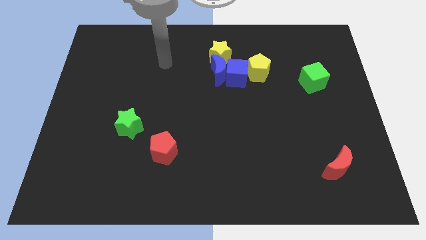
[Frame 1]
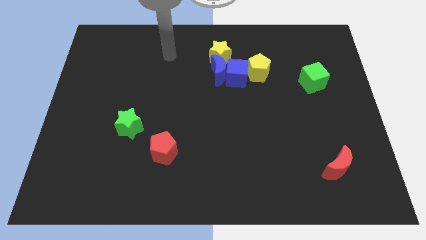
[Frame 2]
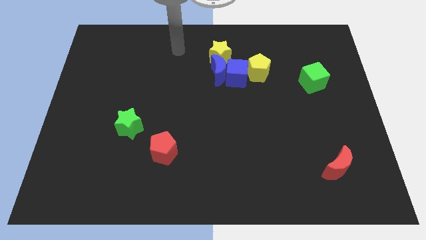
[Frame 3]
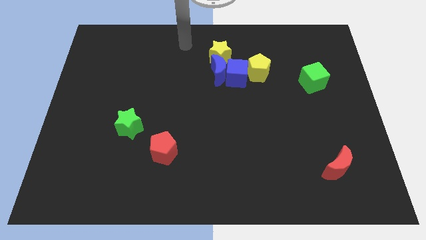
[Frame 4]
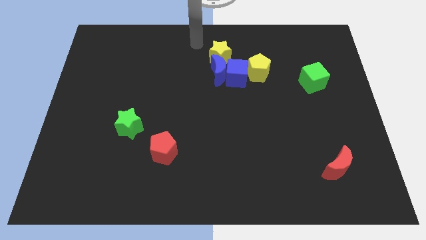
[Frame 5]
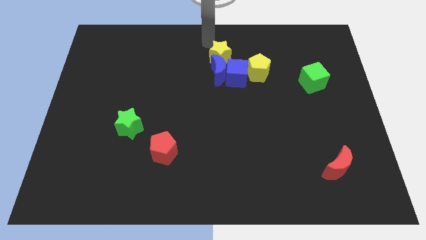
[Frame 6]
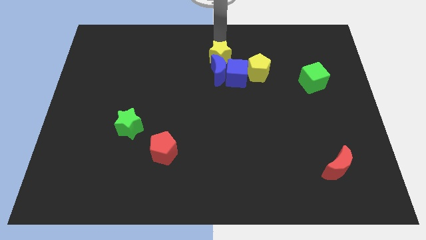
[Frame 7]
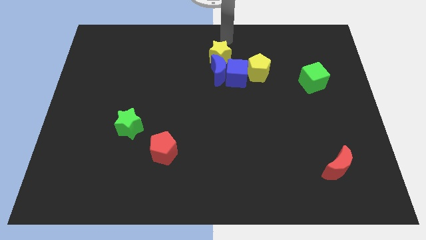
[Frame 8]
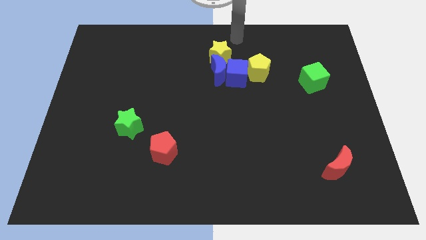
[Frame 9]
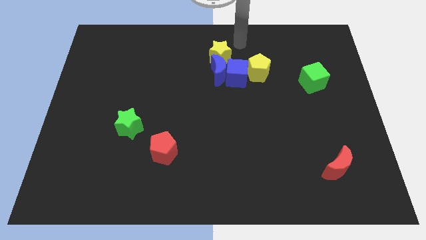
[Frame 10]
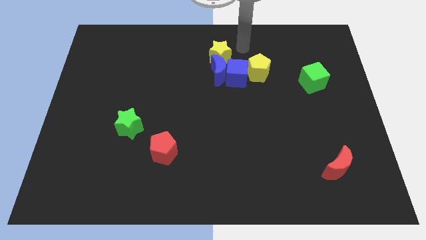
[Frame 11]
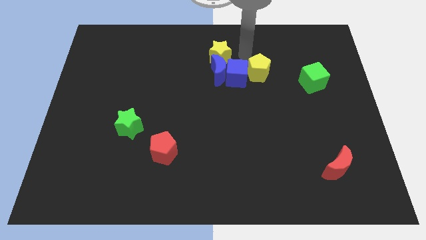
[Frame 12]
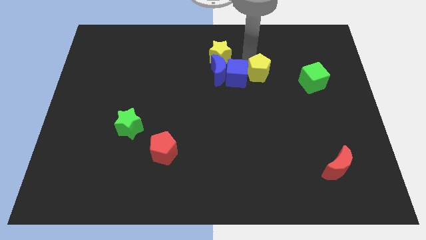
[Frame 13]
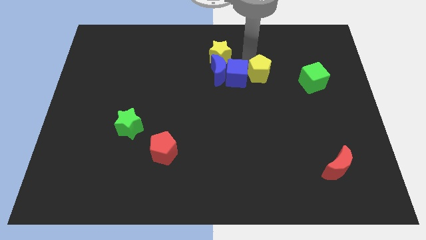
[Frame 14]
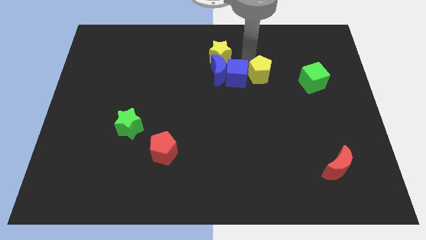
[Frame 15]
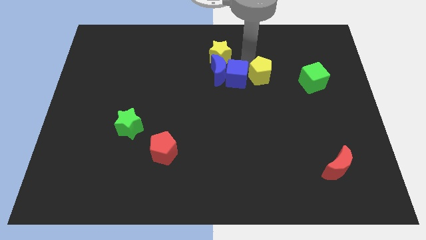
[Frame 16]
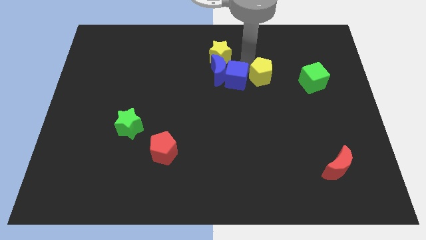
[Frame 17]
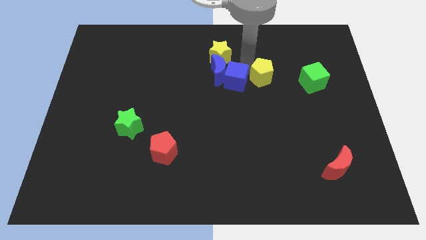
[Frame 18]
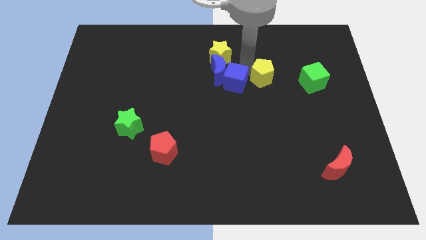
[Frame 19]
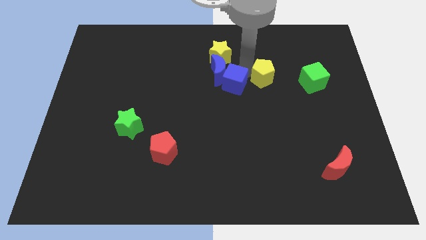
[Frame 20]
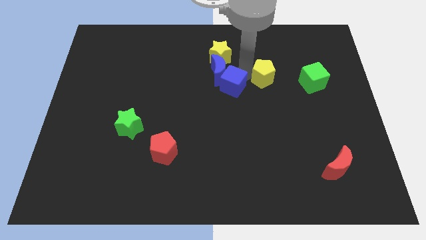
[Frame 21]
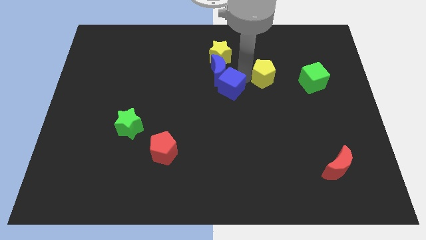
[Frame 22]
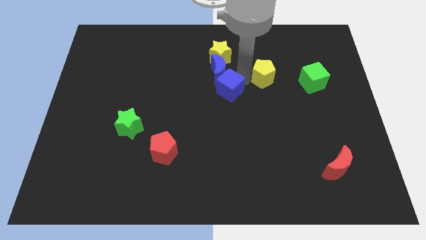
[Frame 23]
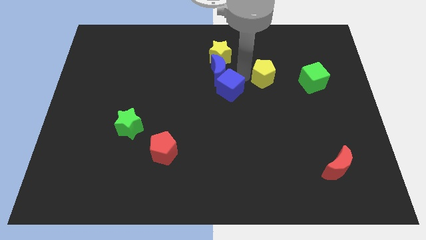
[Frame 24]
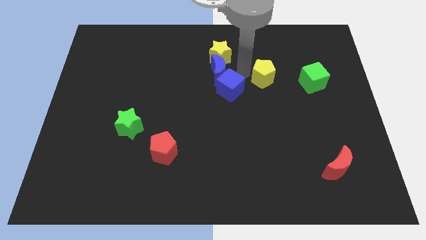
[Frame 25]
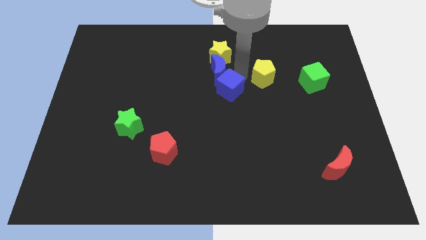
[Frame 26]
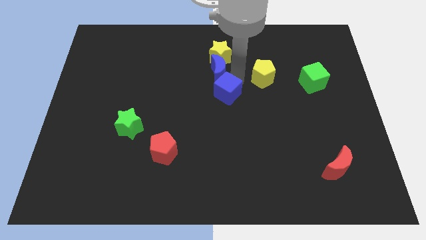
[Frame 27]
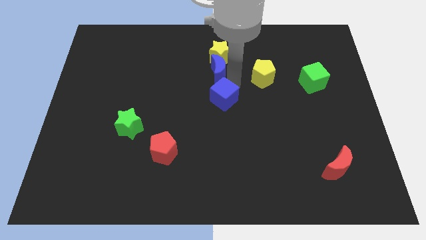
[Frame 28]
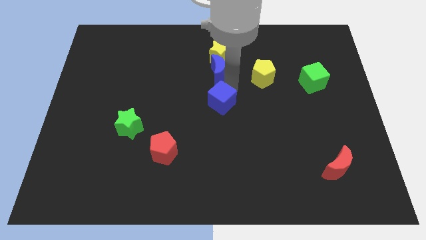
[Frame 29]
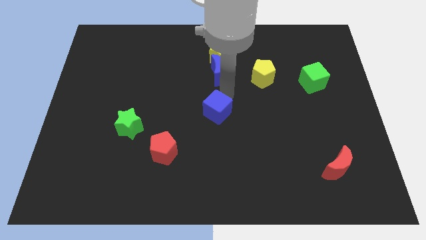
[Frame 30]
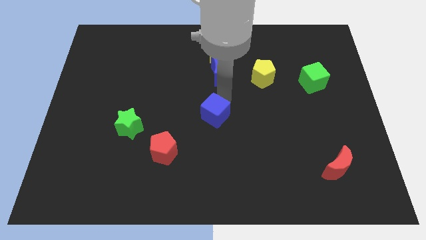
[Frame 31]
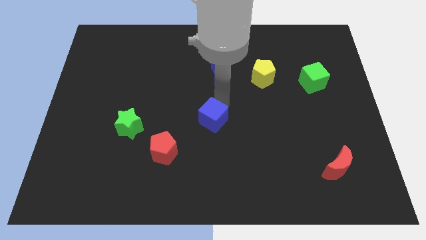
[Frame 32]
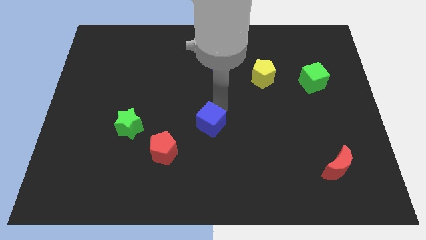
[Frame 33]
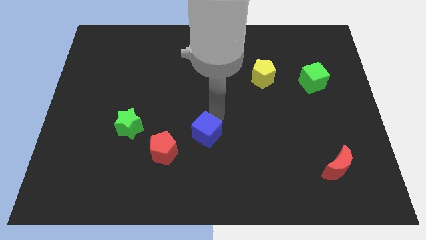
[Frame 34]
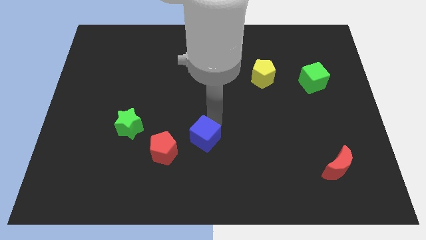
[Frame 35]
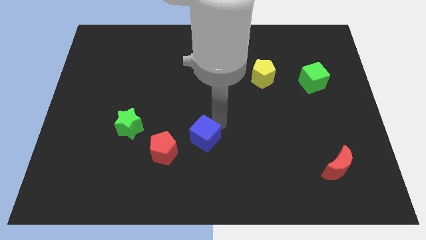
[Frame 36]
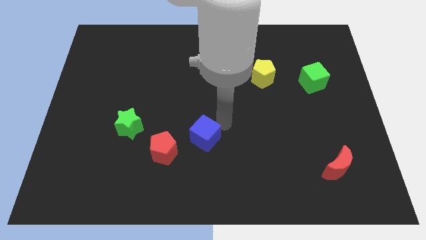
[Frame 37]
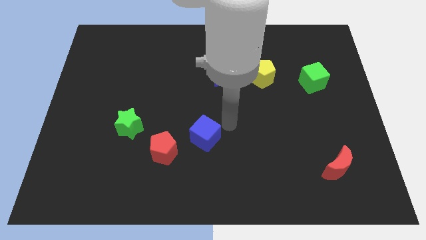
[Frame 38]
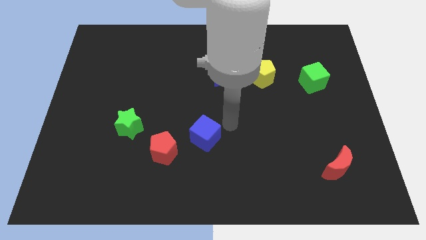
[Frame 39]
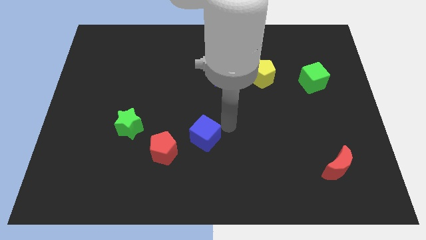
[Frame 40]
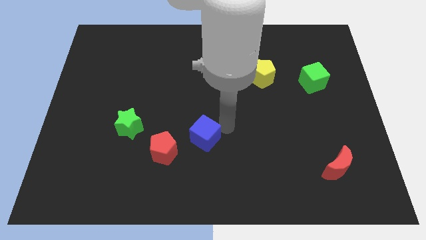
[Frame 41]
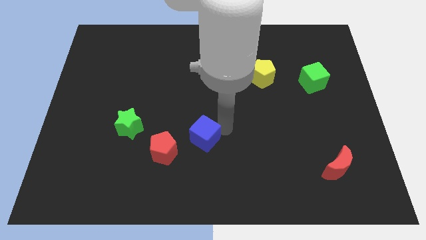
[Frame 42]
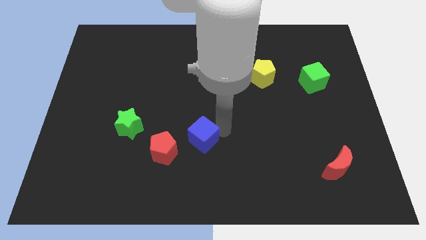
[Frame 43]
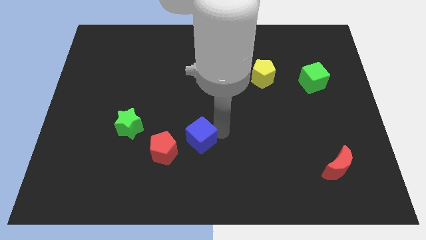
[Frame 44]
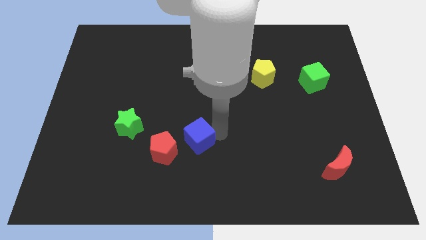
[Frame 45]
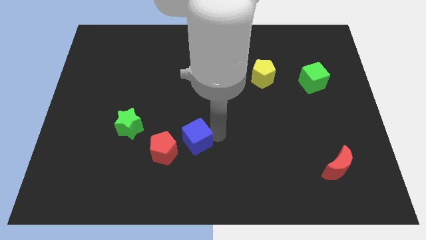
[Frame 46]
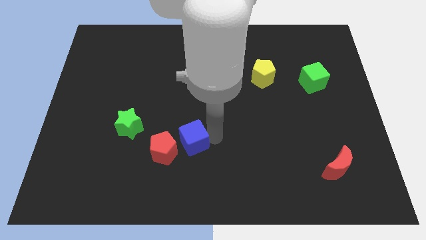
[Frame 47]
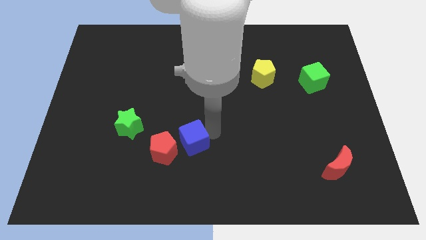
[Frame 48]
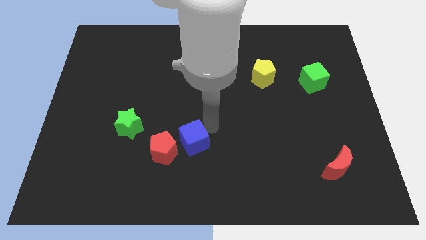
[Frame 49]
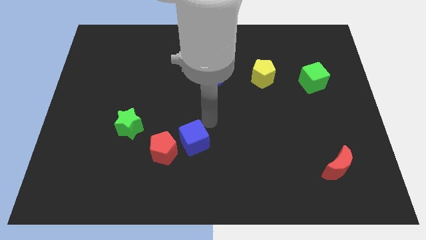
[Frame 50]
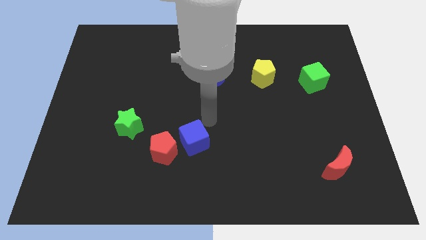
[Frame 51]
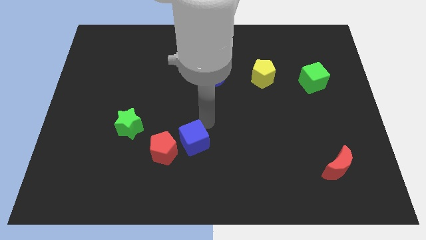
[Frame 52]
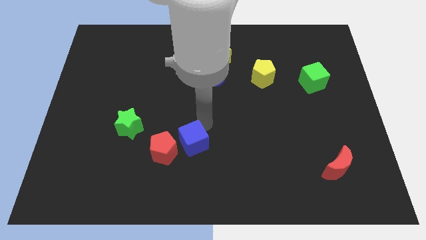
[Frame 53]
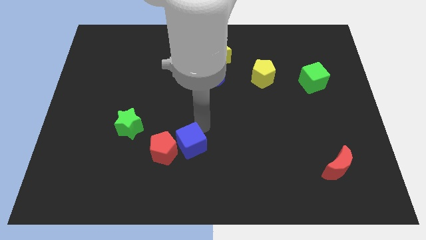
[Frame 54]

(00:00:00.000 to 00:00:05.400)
push the blue cube downwards and to the left diagonally

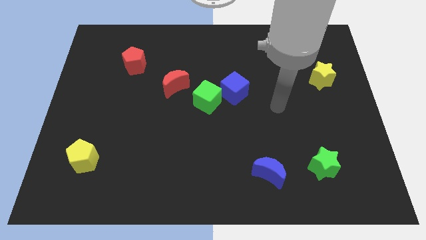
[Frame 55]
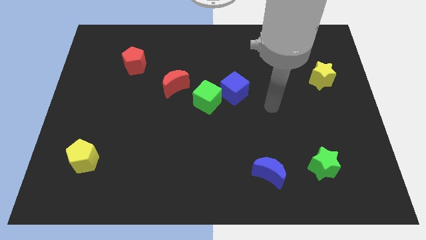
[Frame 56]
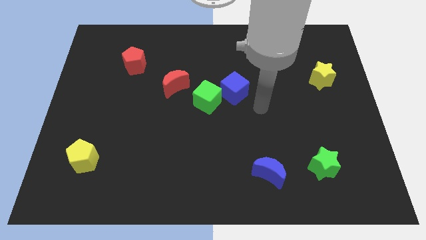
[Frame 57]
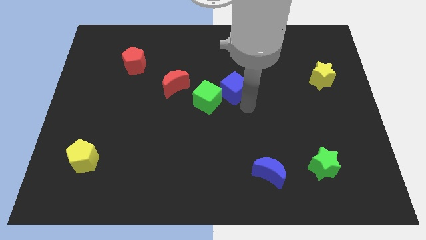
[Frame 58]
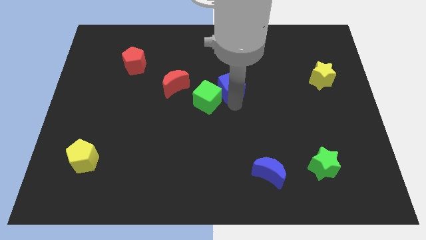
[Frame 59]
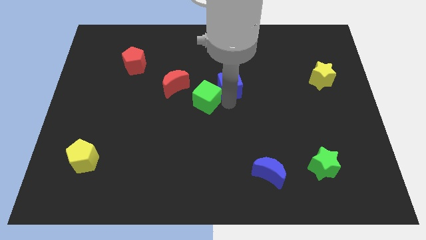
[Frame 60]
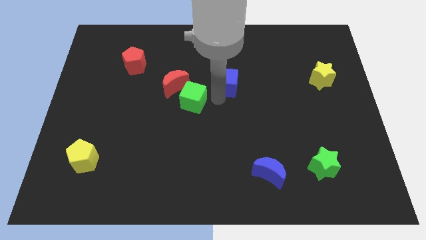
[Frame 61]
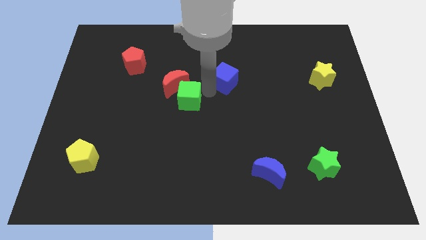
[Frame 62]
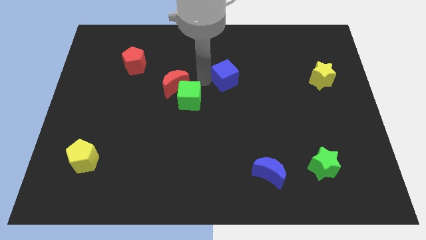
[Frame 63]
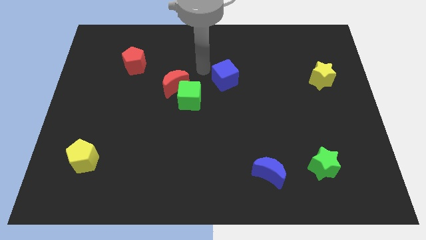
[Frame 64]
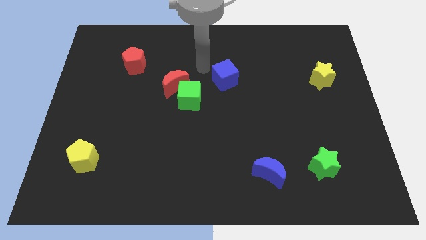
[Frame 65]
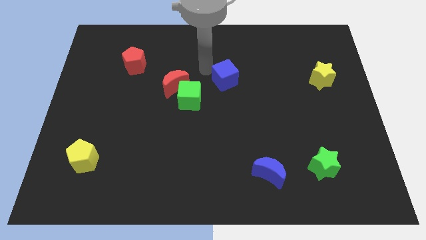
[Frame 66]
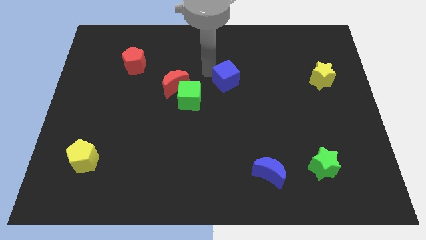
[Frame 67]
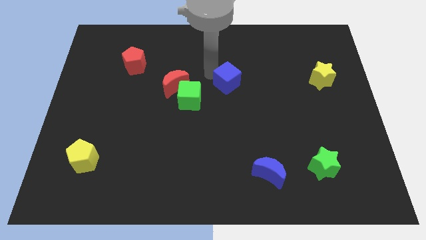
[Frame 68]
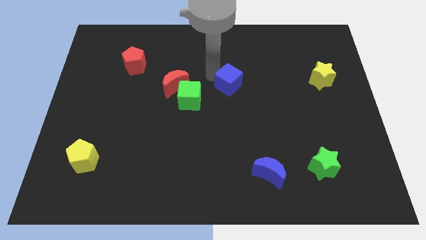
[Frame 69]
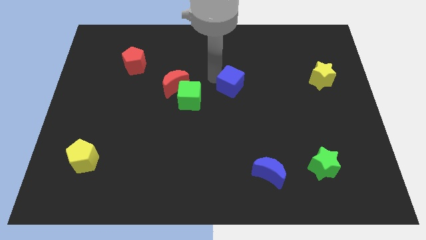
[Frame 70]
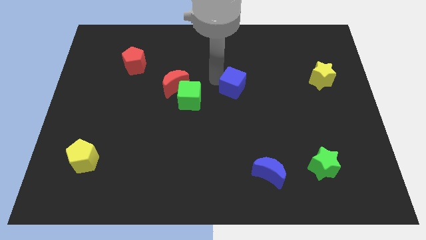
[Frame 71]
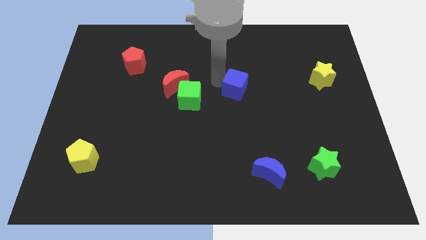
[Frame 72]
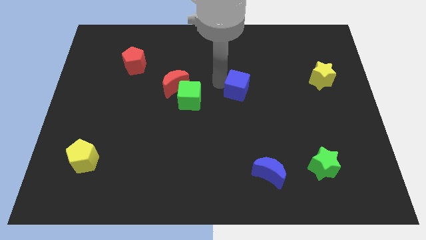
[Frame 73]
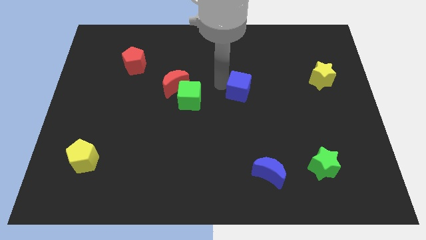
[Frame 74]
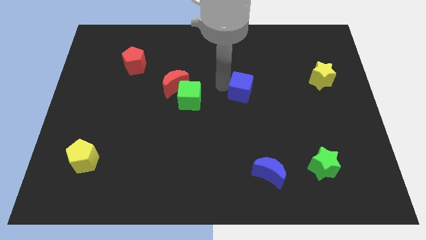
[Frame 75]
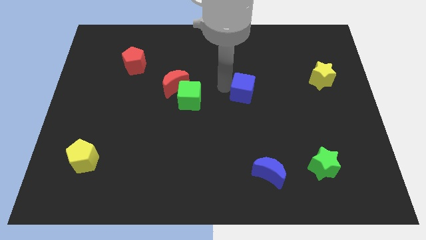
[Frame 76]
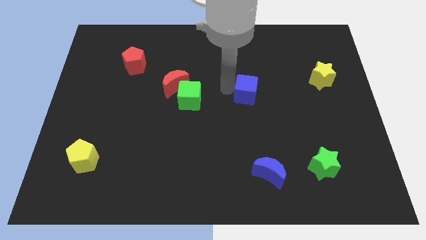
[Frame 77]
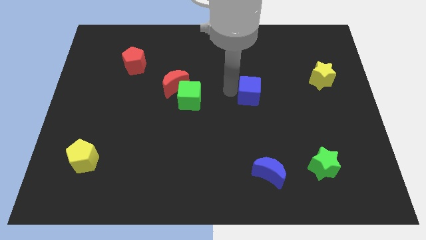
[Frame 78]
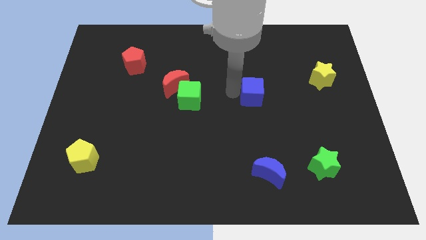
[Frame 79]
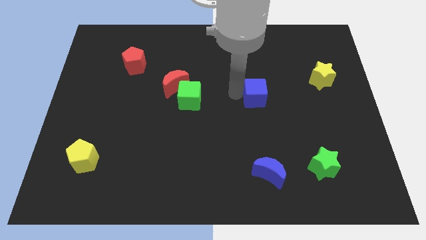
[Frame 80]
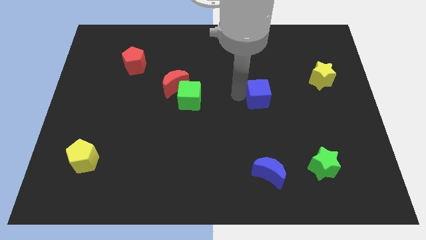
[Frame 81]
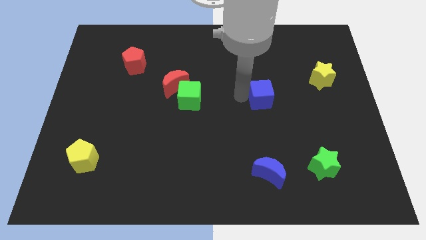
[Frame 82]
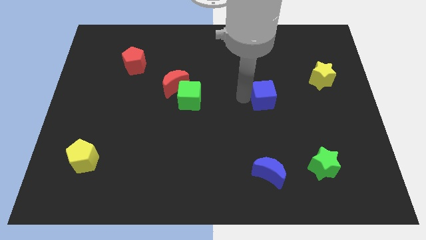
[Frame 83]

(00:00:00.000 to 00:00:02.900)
move the blue cube right a little bit

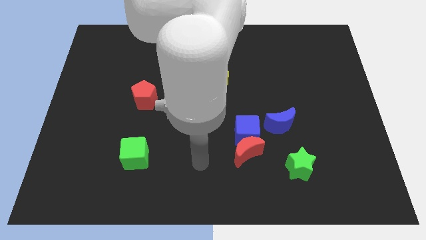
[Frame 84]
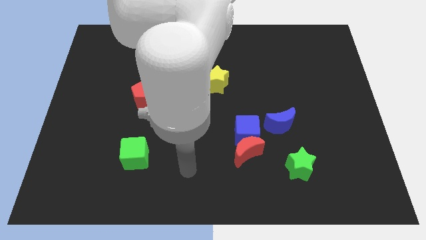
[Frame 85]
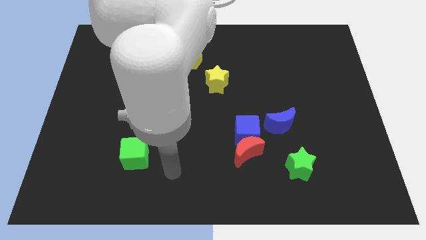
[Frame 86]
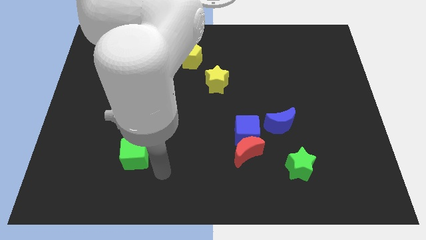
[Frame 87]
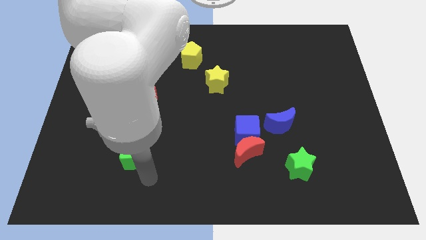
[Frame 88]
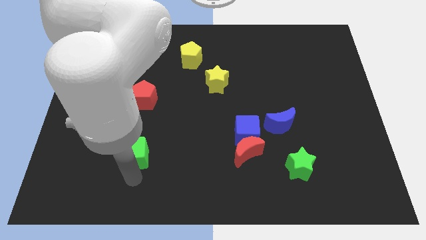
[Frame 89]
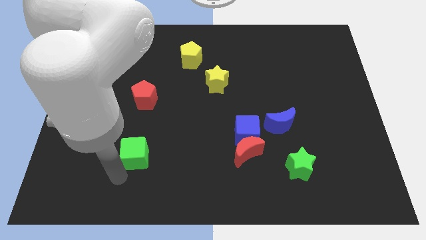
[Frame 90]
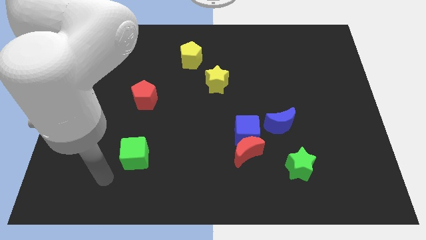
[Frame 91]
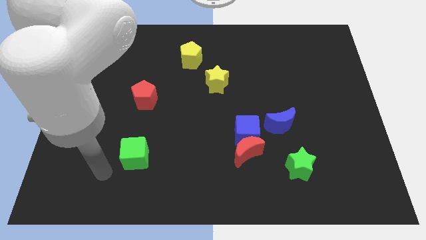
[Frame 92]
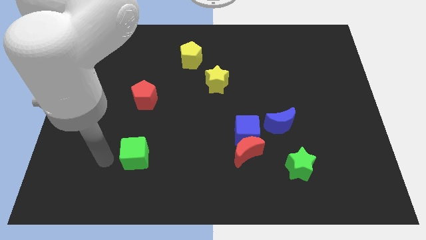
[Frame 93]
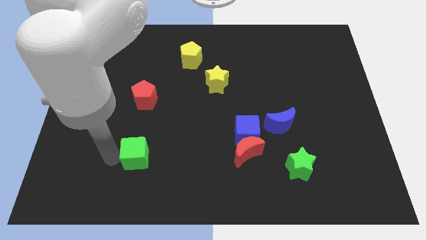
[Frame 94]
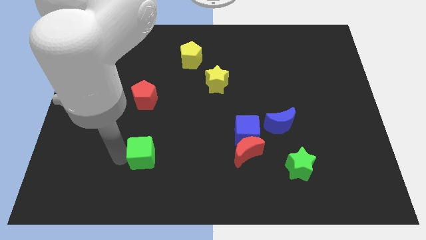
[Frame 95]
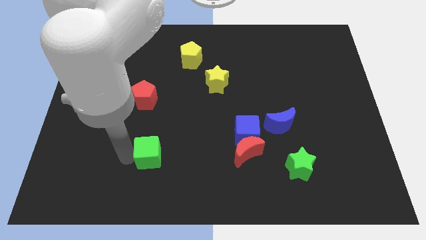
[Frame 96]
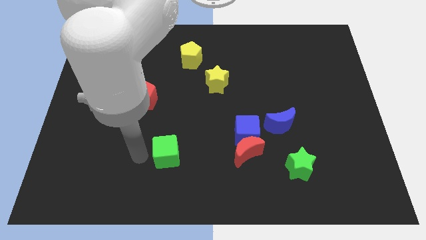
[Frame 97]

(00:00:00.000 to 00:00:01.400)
move the green cube a little to the right
